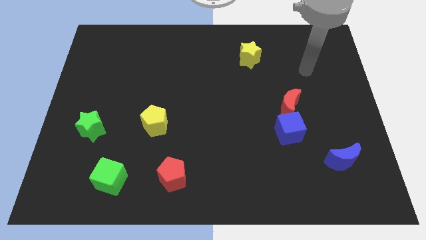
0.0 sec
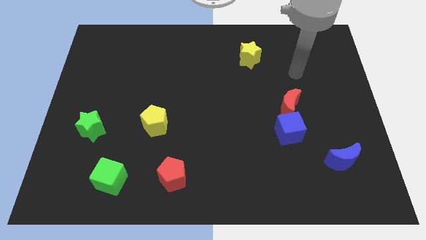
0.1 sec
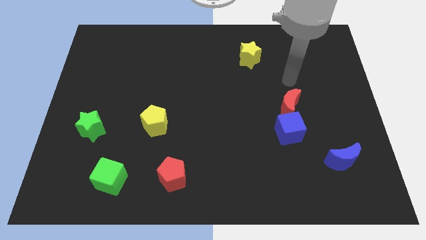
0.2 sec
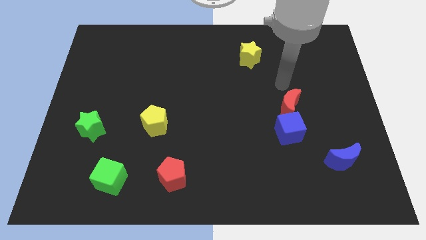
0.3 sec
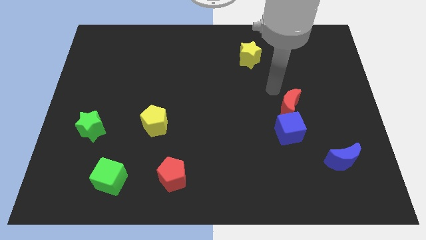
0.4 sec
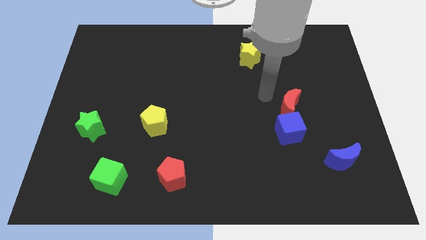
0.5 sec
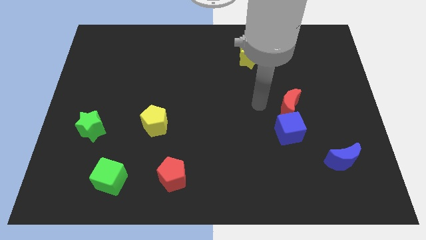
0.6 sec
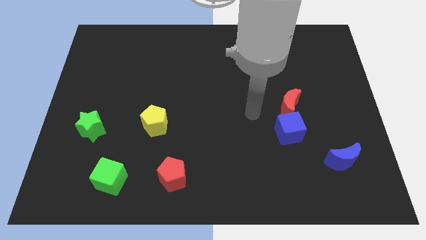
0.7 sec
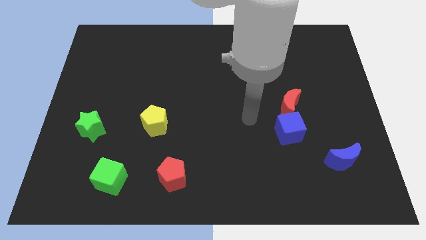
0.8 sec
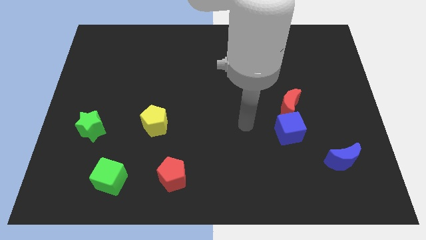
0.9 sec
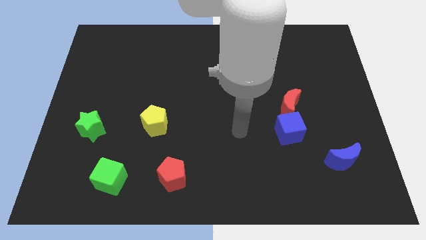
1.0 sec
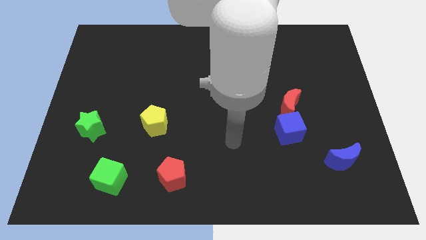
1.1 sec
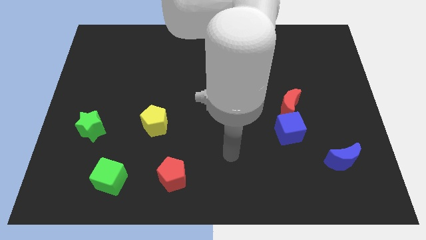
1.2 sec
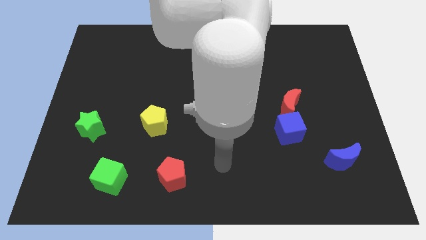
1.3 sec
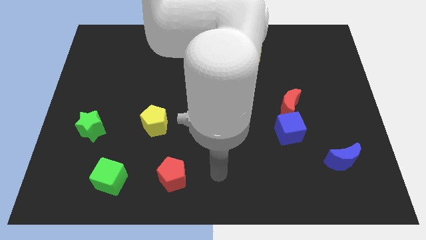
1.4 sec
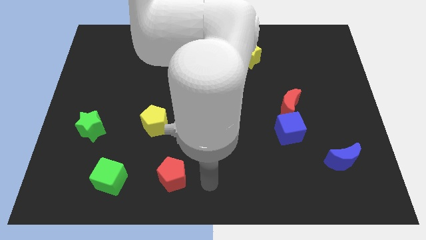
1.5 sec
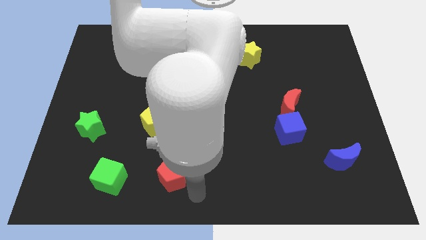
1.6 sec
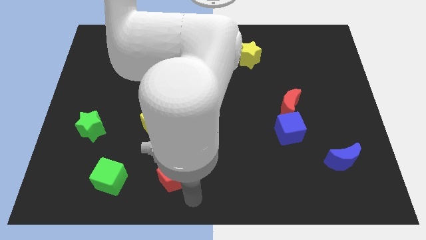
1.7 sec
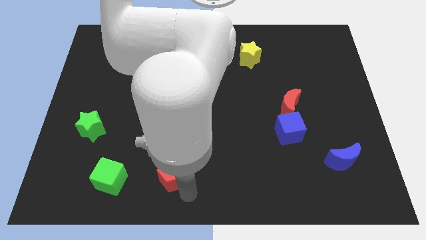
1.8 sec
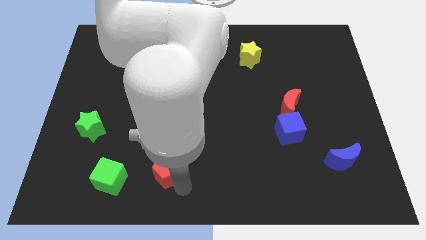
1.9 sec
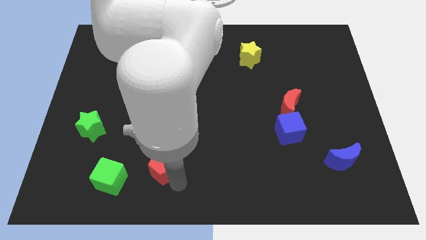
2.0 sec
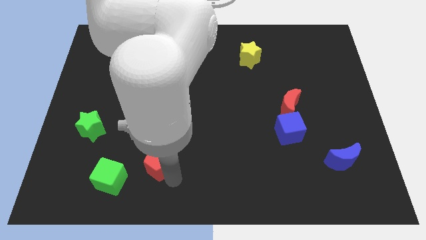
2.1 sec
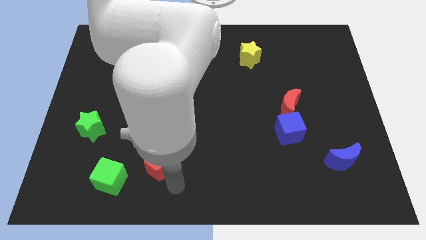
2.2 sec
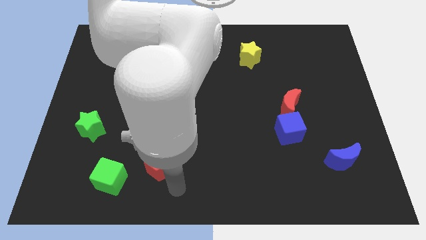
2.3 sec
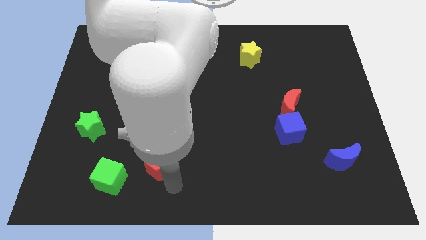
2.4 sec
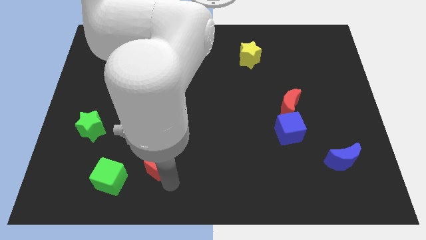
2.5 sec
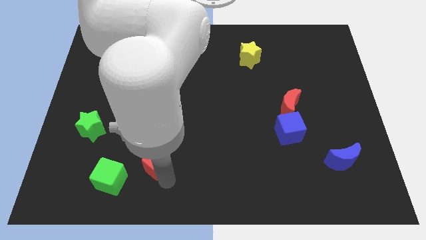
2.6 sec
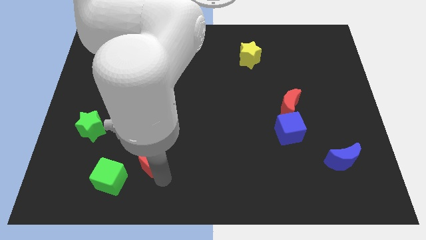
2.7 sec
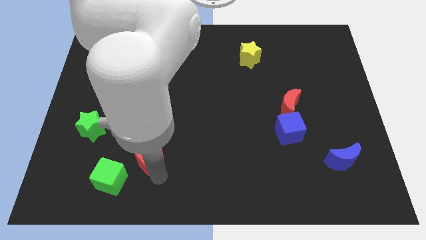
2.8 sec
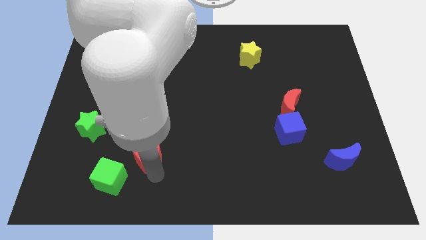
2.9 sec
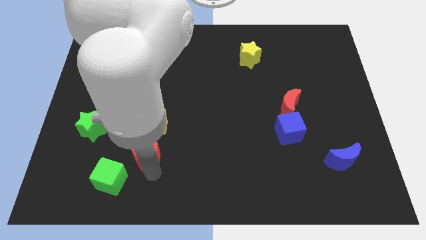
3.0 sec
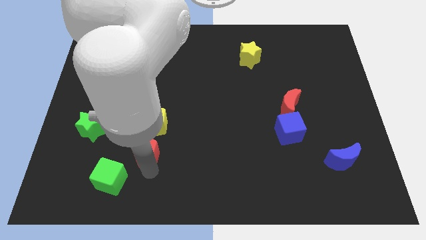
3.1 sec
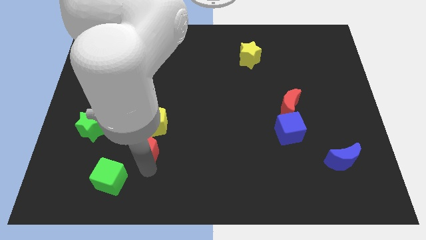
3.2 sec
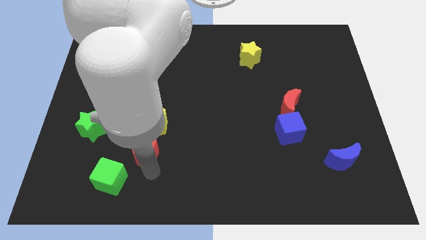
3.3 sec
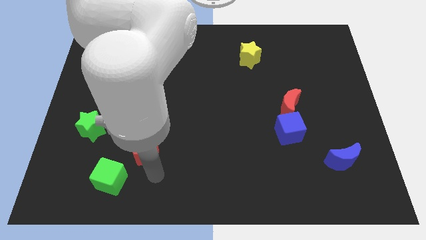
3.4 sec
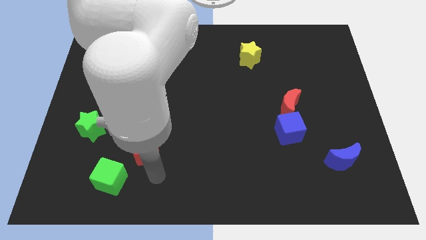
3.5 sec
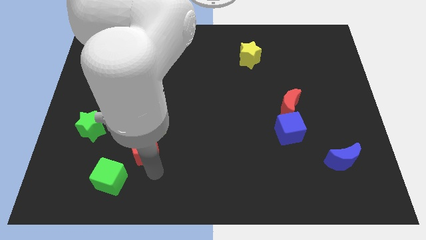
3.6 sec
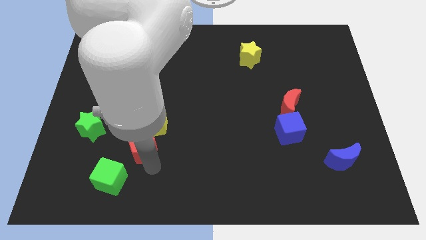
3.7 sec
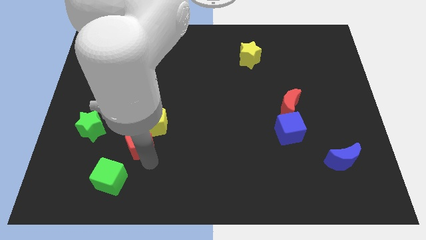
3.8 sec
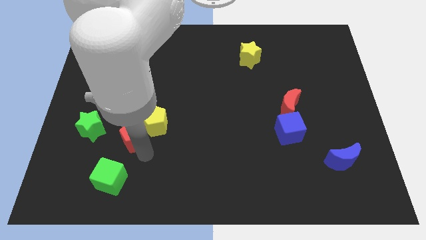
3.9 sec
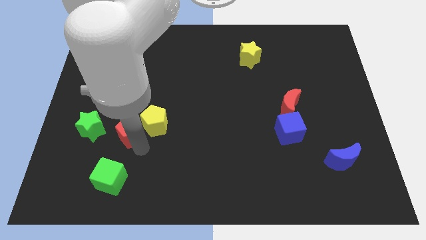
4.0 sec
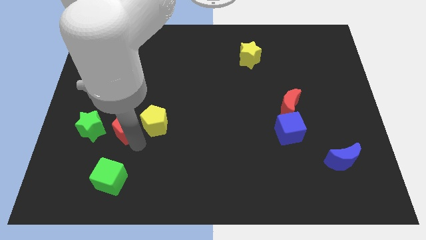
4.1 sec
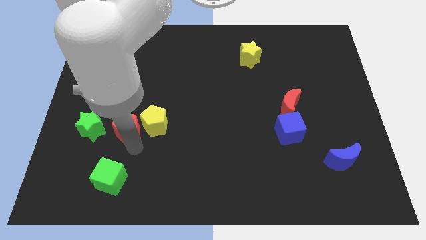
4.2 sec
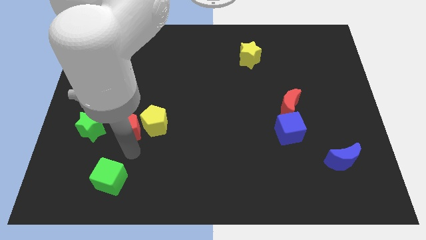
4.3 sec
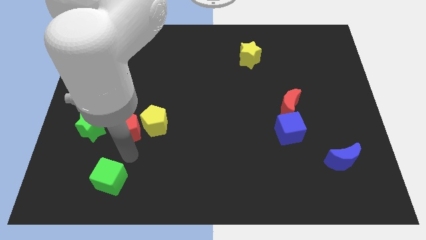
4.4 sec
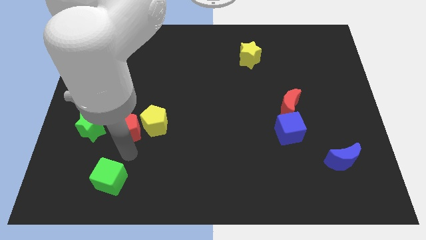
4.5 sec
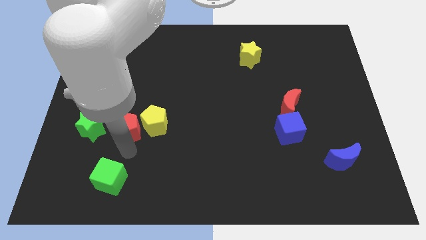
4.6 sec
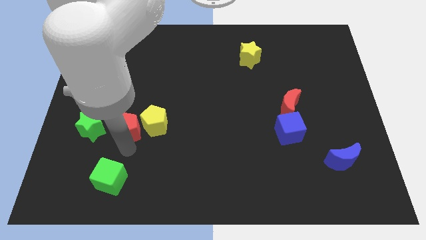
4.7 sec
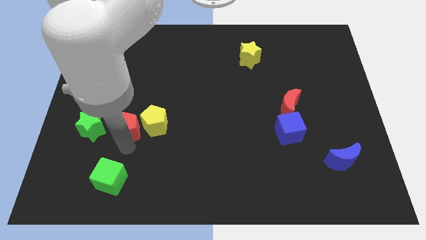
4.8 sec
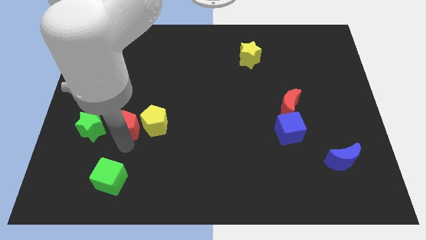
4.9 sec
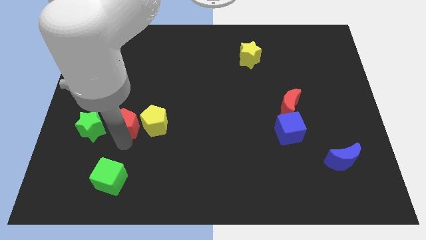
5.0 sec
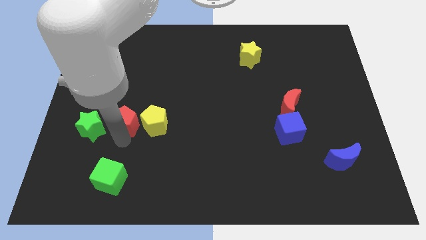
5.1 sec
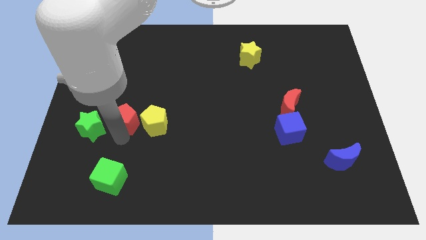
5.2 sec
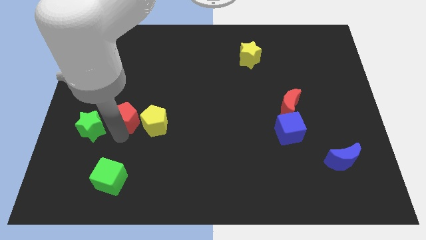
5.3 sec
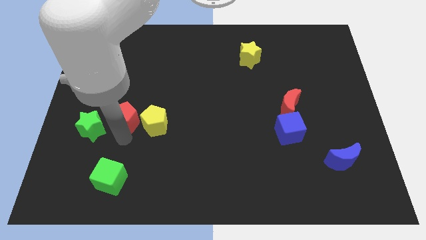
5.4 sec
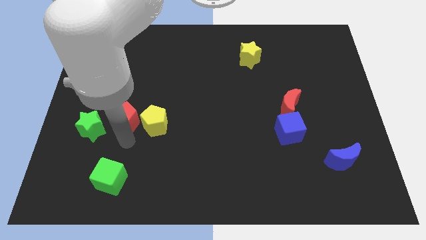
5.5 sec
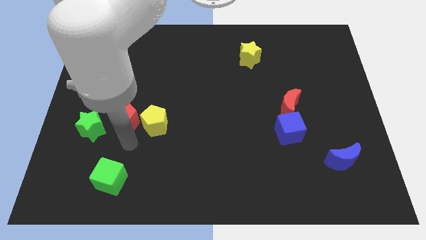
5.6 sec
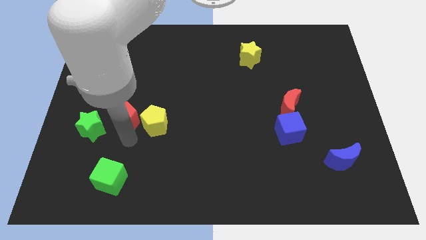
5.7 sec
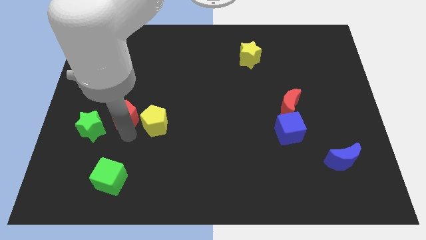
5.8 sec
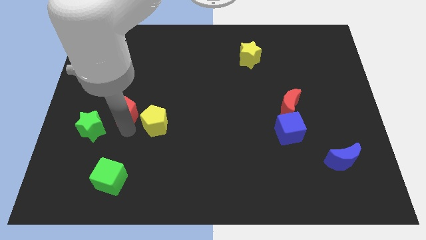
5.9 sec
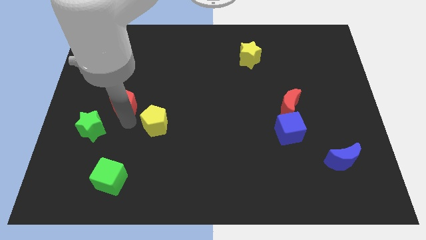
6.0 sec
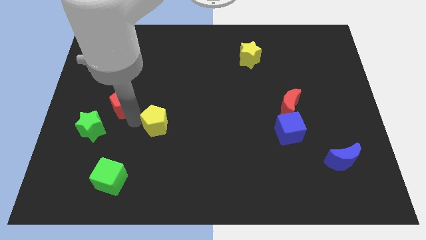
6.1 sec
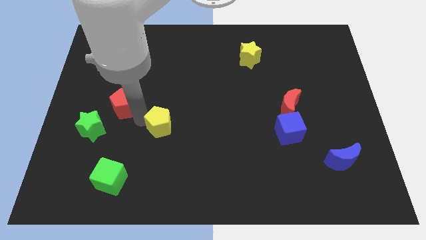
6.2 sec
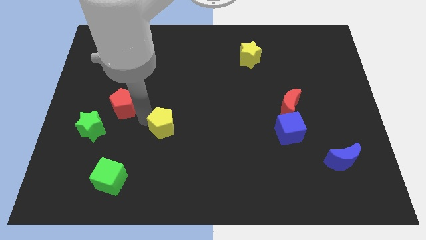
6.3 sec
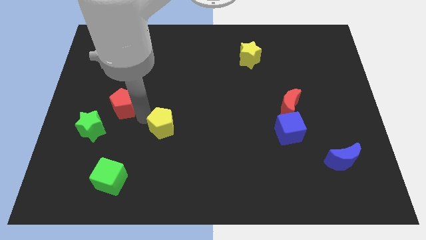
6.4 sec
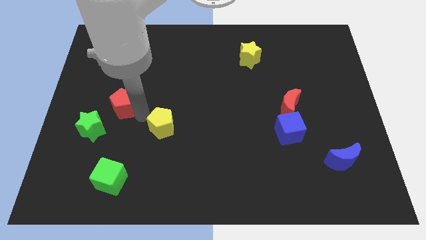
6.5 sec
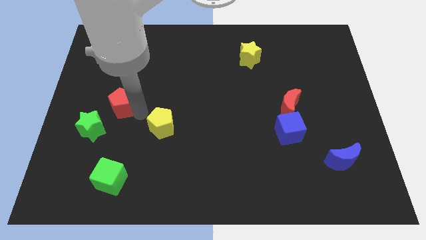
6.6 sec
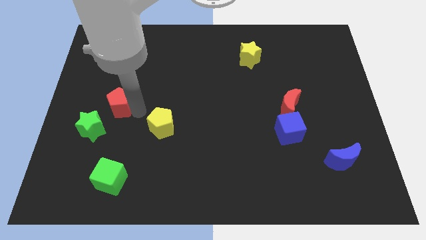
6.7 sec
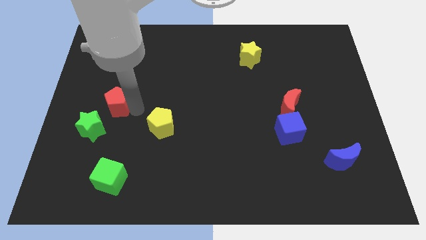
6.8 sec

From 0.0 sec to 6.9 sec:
slide the red pentagon to the top side of the green star
